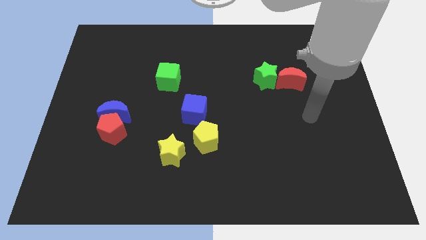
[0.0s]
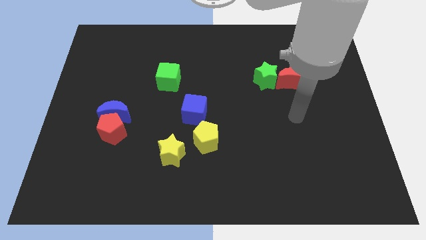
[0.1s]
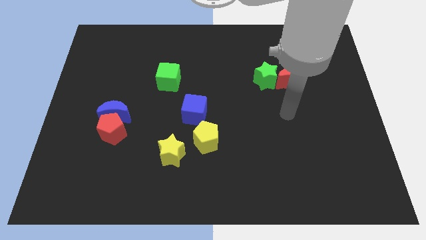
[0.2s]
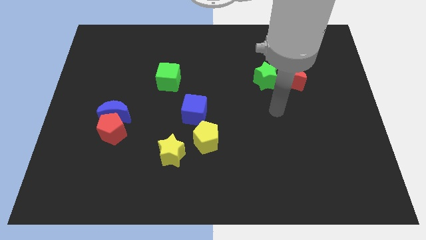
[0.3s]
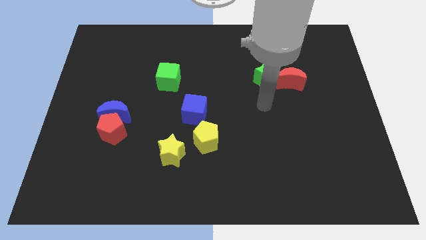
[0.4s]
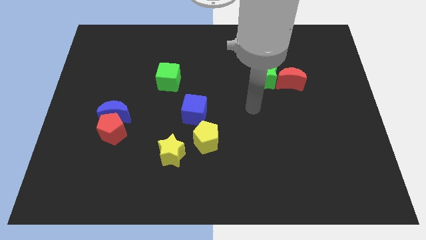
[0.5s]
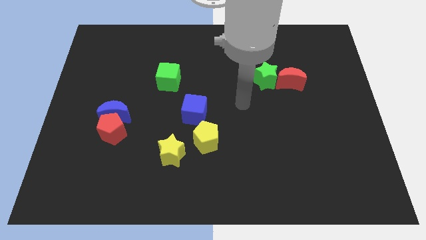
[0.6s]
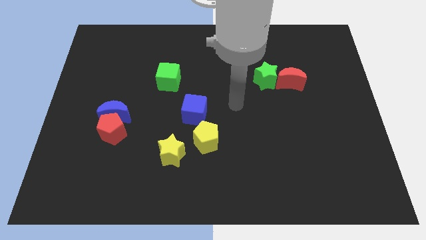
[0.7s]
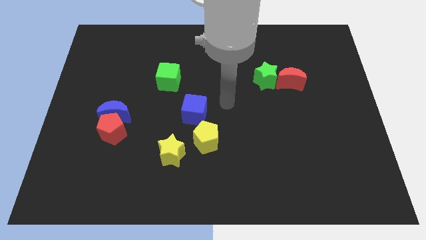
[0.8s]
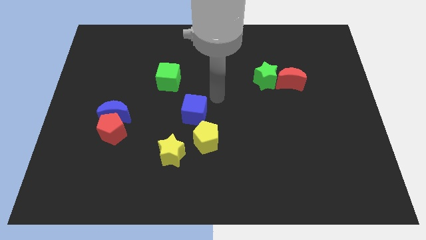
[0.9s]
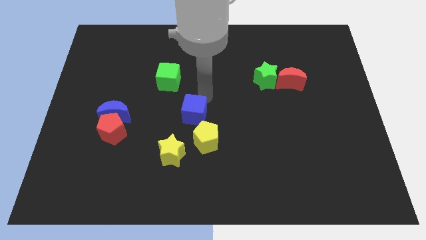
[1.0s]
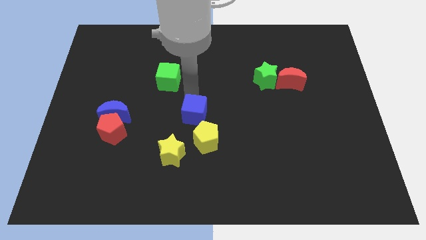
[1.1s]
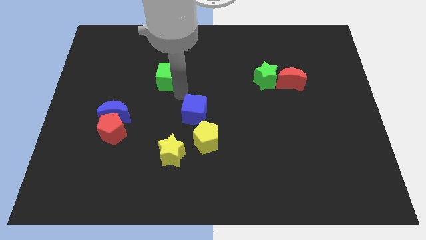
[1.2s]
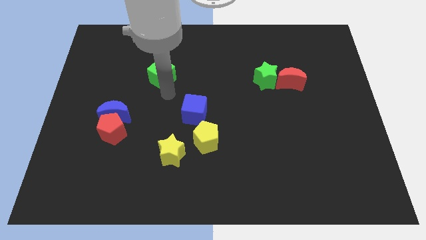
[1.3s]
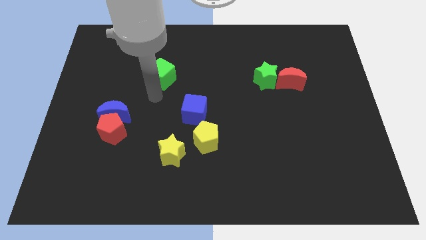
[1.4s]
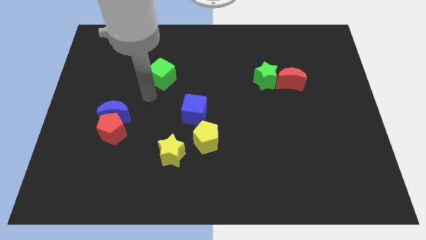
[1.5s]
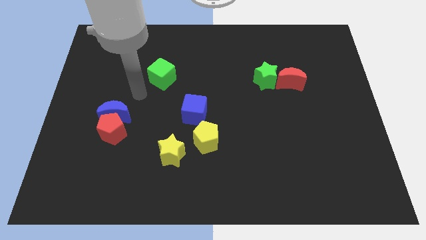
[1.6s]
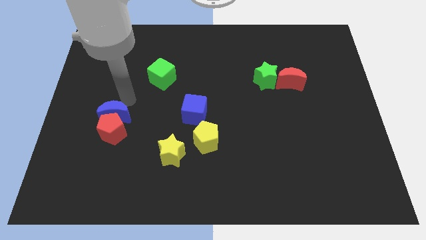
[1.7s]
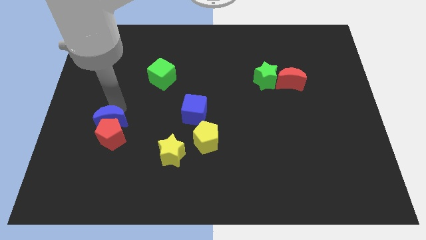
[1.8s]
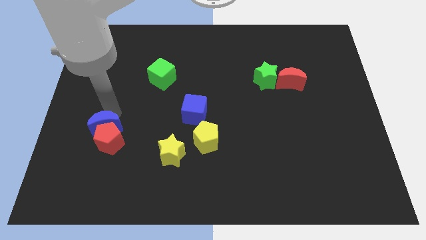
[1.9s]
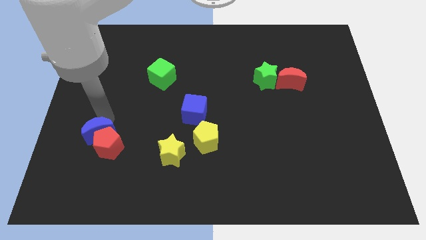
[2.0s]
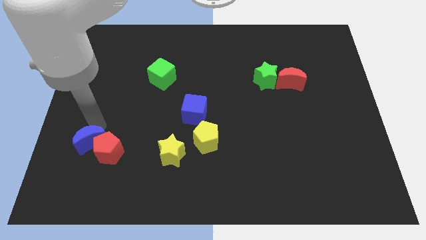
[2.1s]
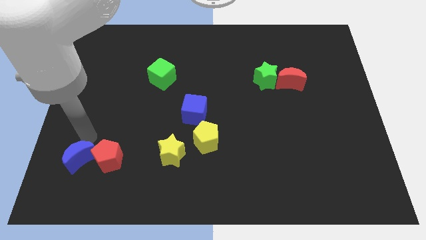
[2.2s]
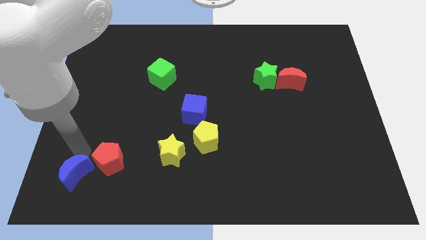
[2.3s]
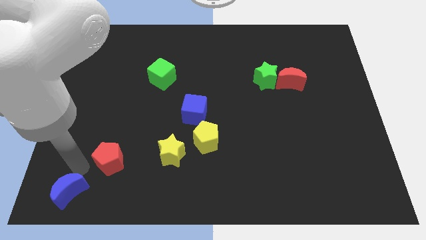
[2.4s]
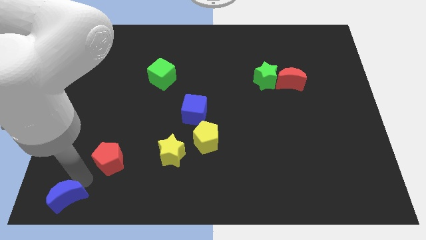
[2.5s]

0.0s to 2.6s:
move the red pentagon away from the blue moon

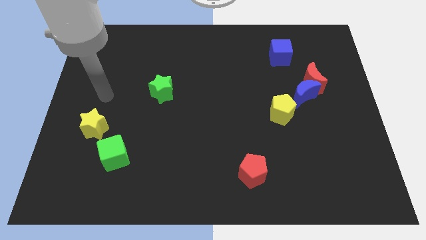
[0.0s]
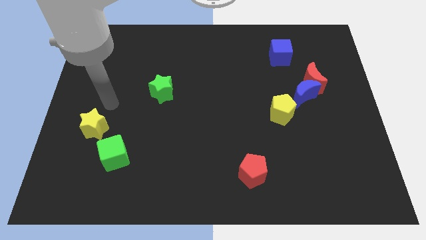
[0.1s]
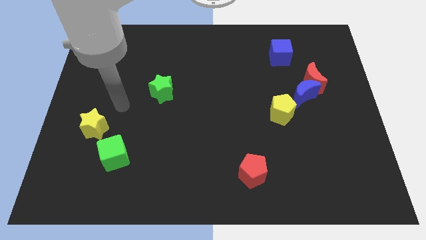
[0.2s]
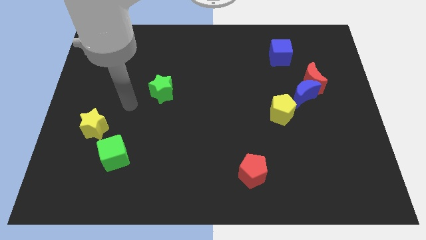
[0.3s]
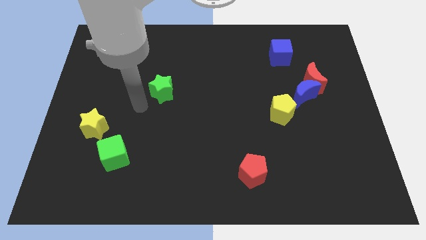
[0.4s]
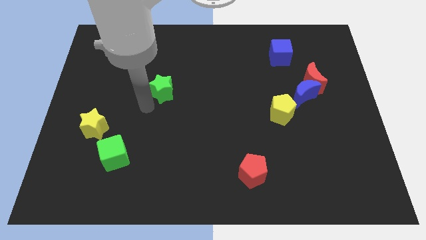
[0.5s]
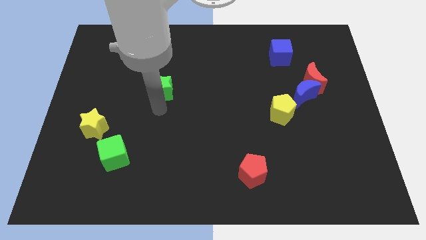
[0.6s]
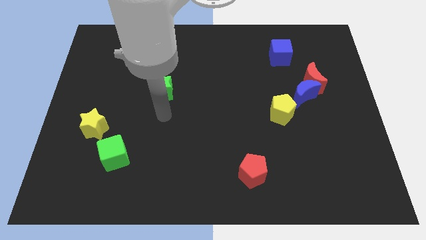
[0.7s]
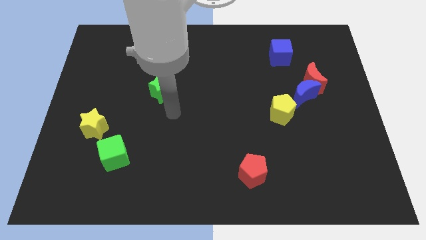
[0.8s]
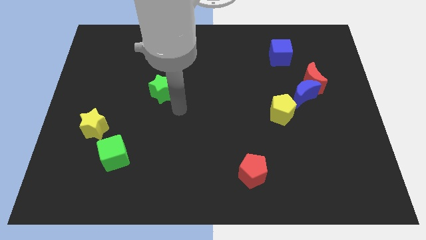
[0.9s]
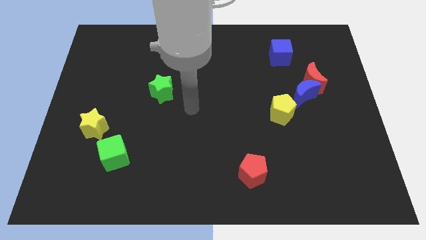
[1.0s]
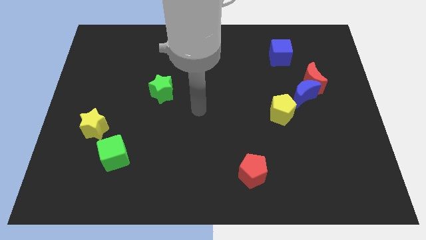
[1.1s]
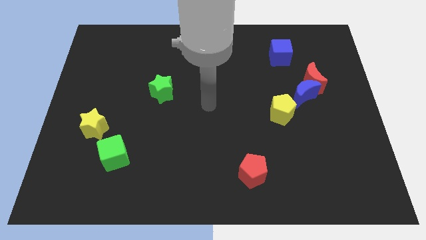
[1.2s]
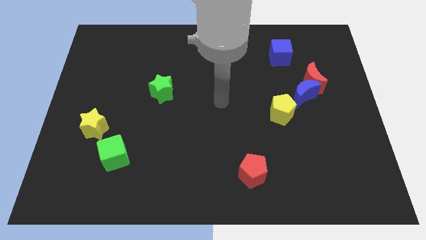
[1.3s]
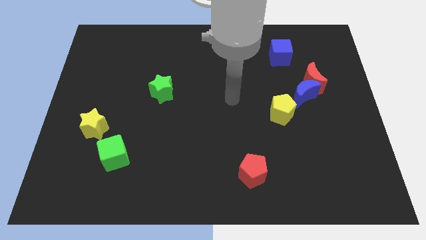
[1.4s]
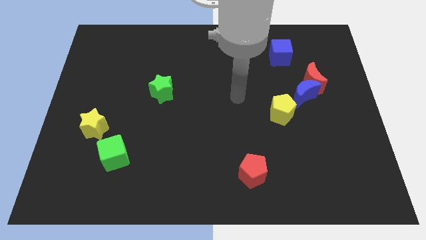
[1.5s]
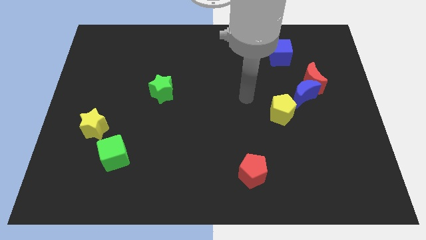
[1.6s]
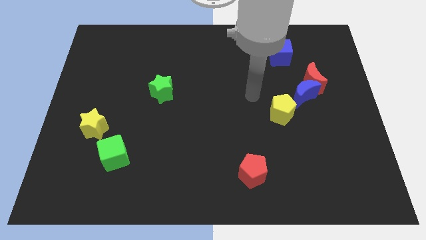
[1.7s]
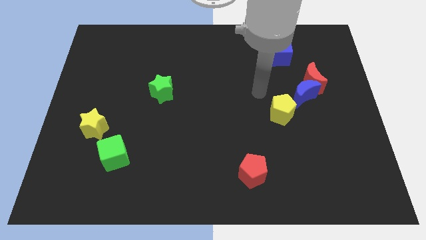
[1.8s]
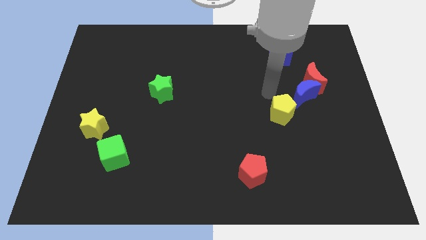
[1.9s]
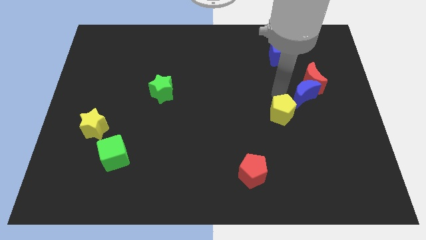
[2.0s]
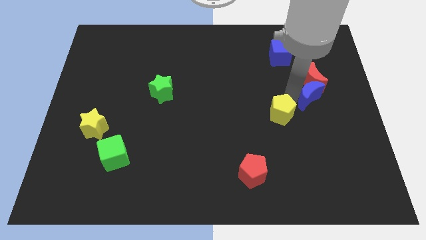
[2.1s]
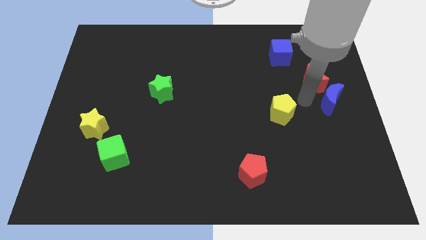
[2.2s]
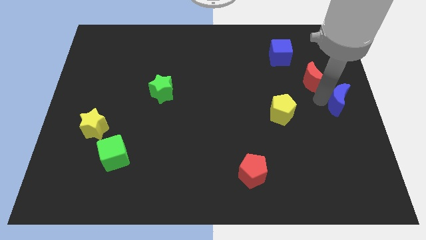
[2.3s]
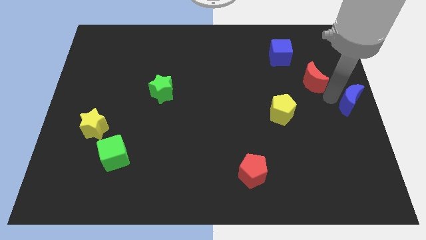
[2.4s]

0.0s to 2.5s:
pull the red moon apart from the blue moon

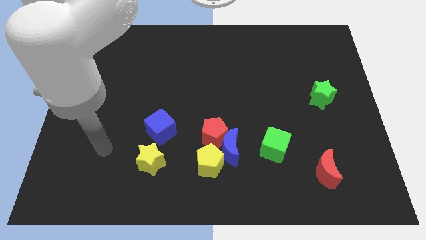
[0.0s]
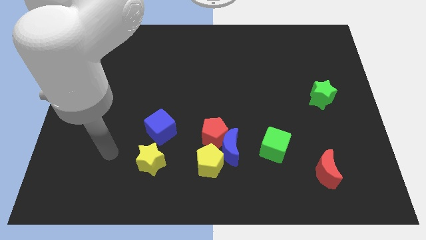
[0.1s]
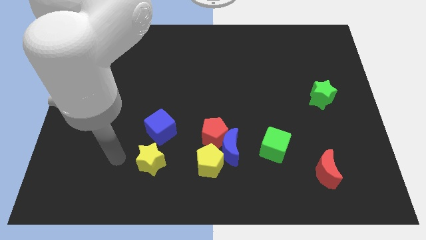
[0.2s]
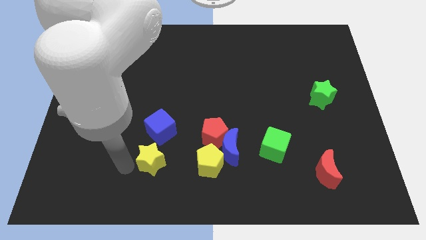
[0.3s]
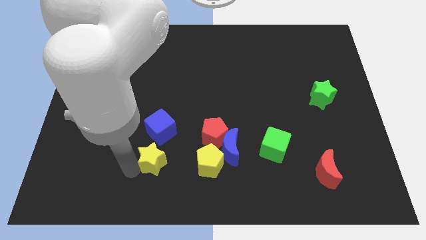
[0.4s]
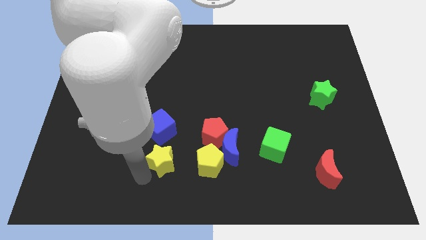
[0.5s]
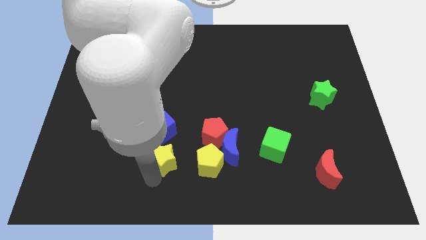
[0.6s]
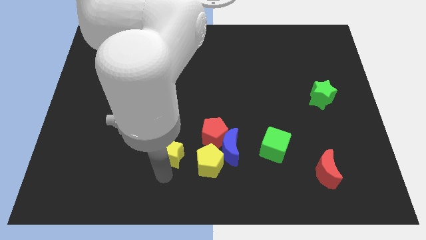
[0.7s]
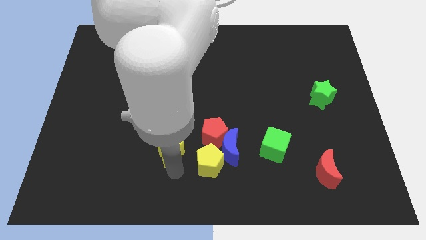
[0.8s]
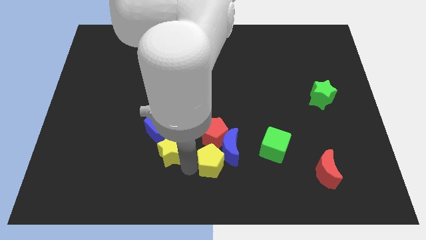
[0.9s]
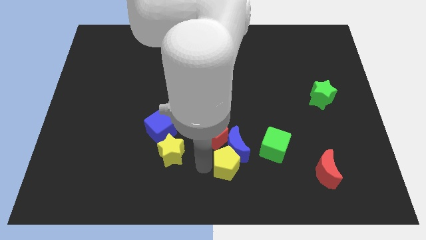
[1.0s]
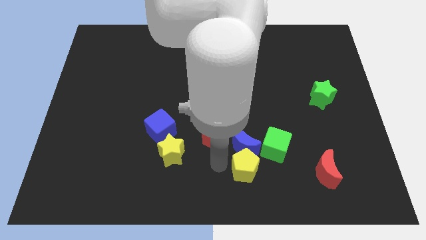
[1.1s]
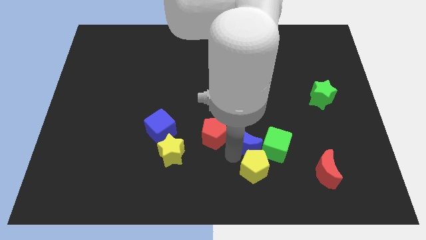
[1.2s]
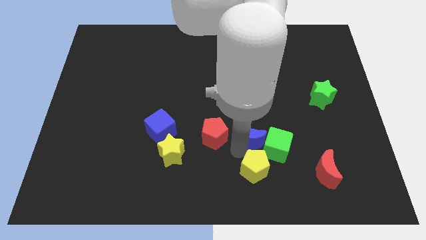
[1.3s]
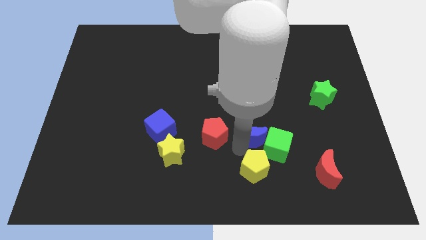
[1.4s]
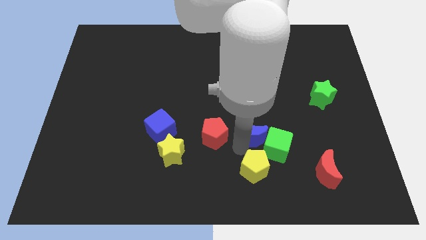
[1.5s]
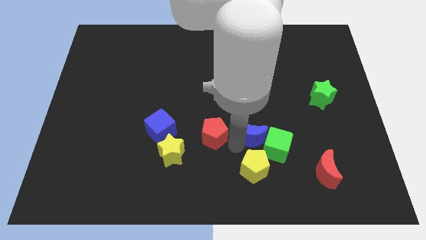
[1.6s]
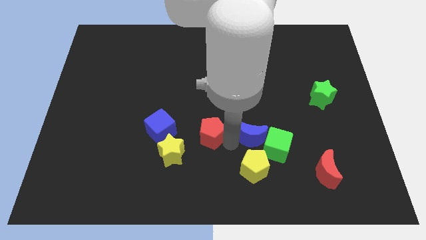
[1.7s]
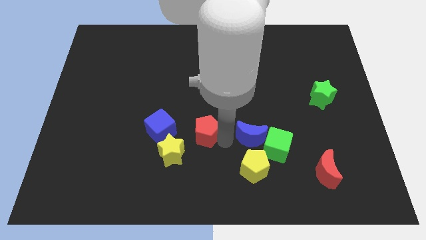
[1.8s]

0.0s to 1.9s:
pull the red pentagon apart from the blue moon and yellow pentagon

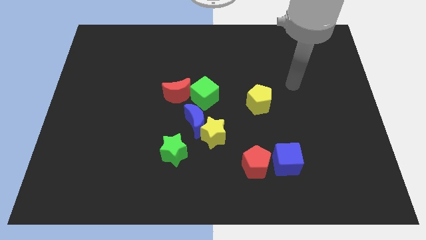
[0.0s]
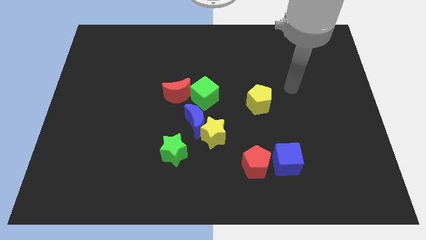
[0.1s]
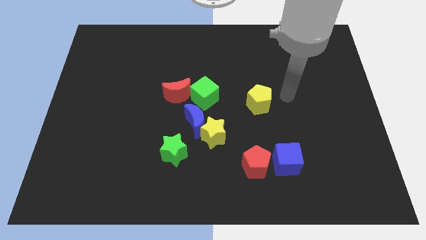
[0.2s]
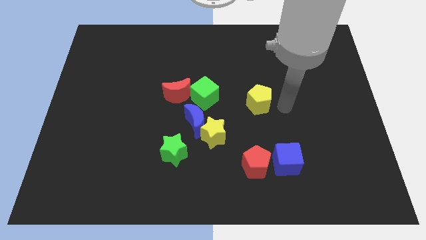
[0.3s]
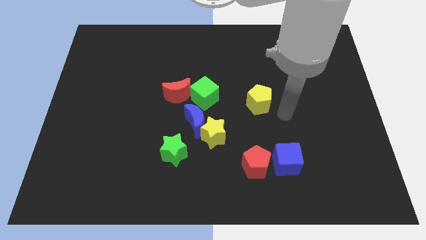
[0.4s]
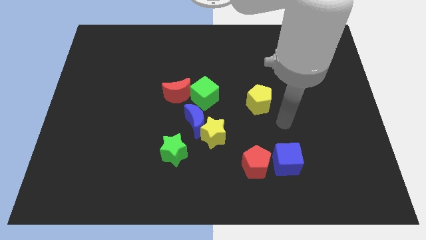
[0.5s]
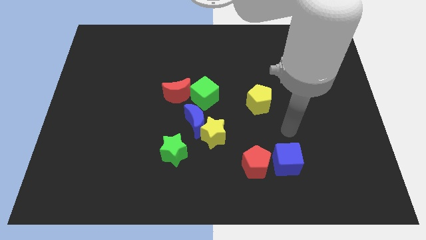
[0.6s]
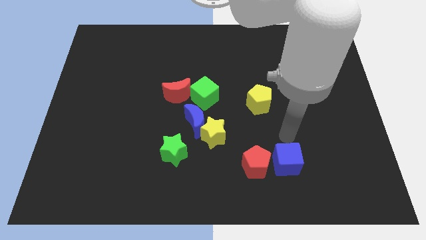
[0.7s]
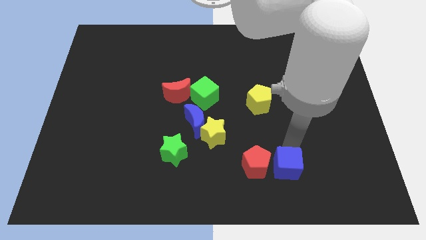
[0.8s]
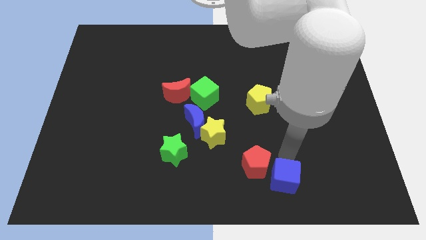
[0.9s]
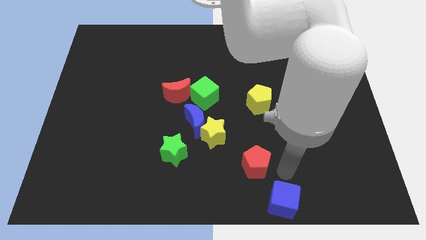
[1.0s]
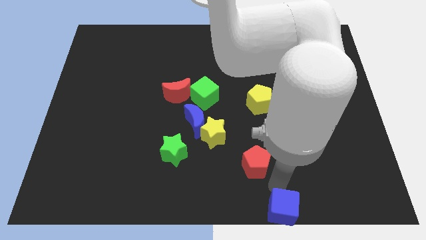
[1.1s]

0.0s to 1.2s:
pull the red pentagon apart from the blue cube

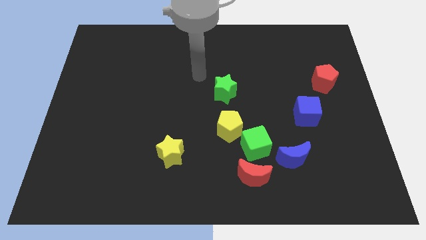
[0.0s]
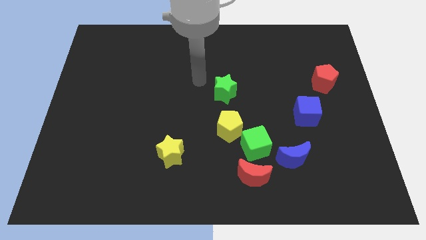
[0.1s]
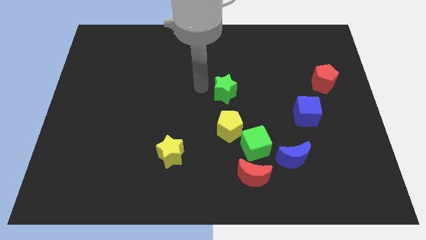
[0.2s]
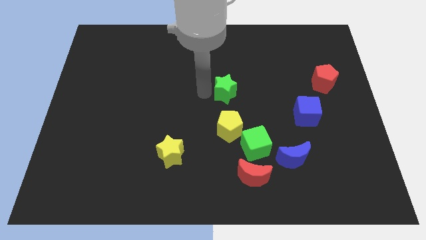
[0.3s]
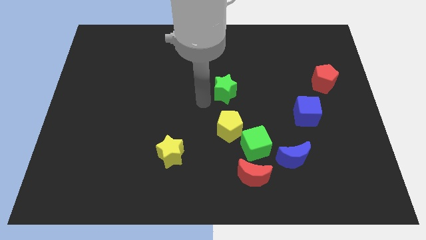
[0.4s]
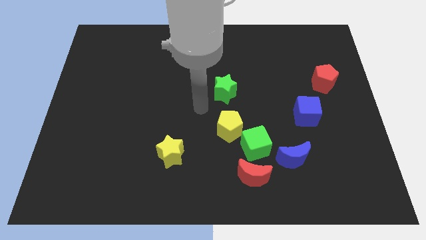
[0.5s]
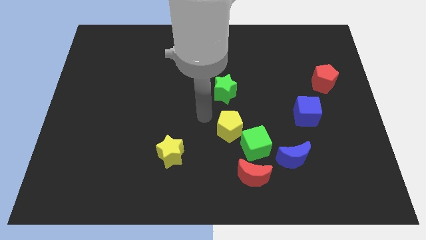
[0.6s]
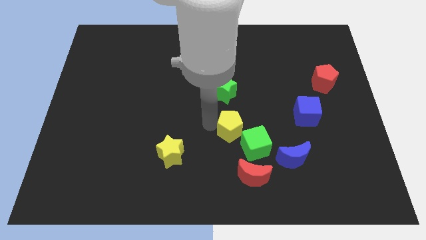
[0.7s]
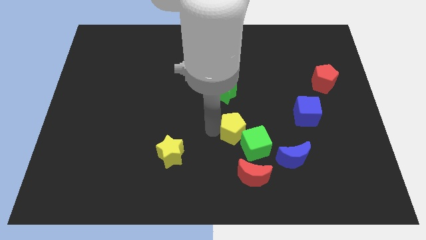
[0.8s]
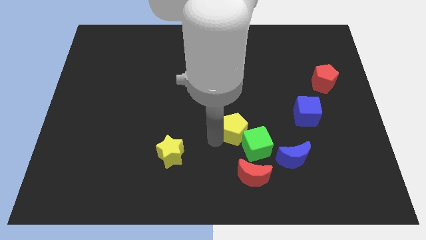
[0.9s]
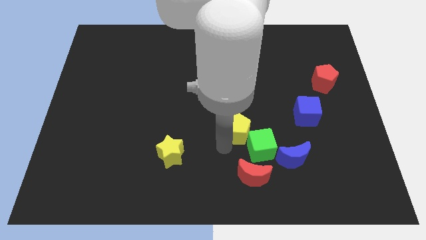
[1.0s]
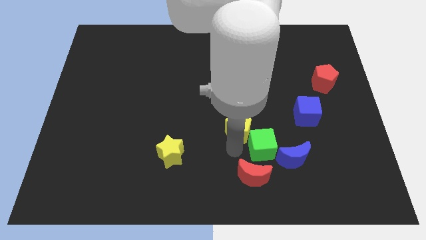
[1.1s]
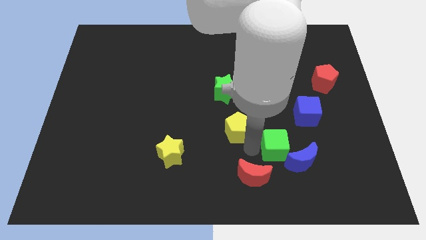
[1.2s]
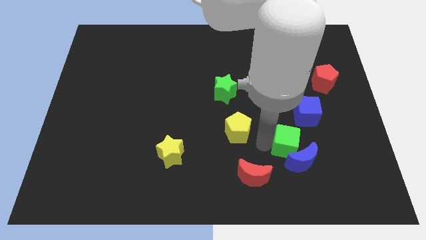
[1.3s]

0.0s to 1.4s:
pull the yellow pentagon apart from the green cube
